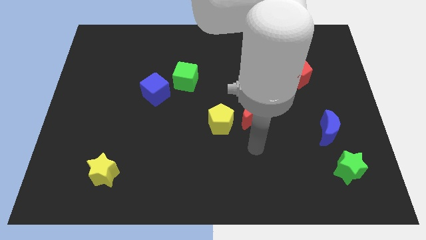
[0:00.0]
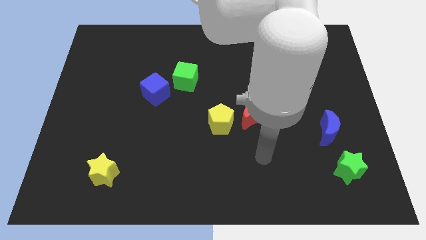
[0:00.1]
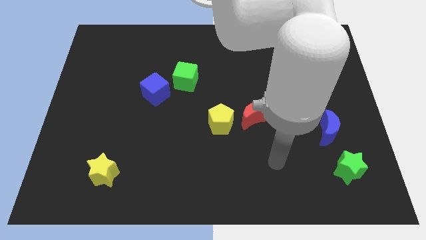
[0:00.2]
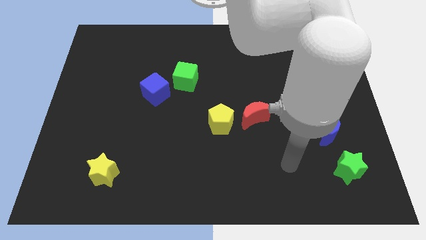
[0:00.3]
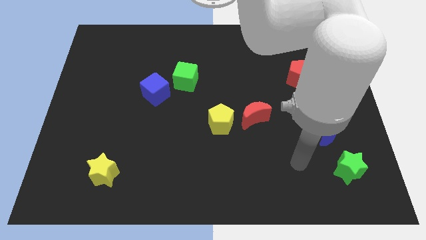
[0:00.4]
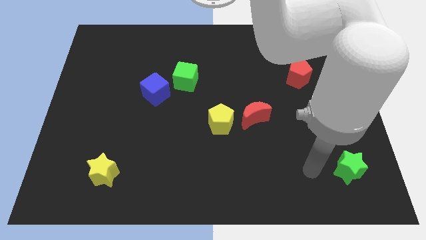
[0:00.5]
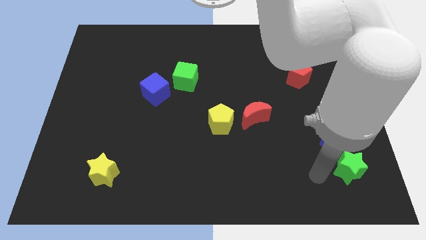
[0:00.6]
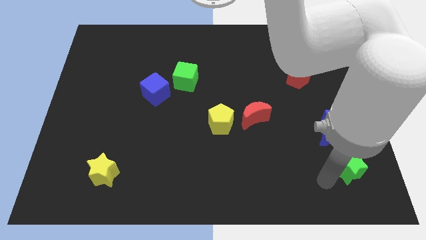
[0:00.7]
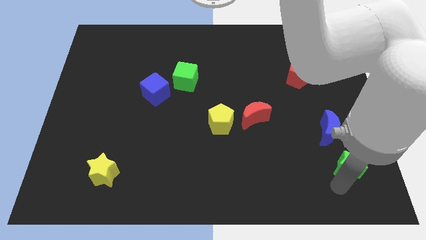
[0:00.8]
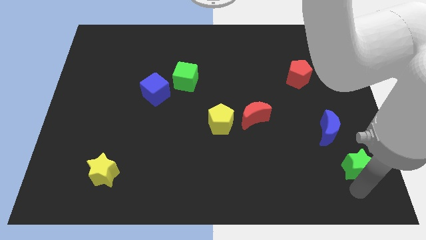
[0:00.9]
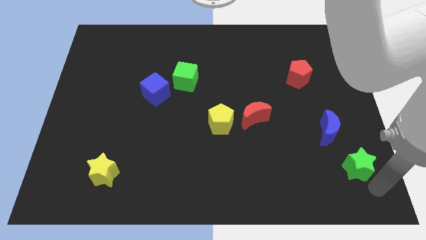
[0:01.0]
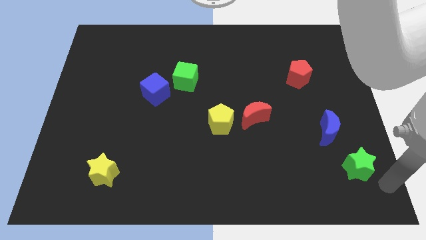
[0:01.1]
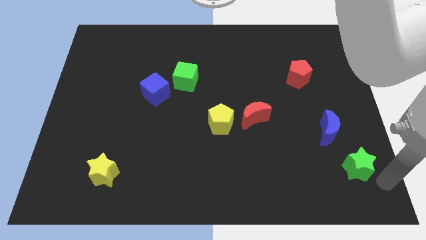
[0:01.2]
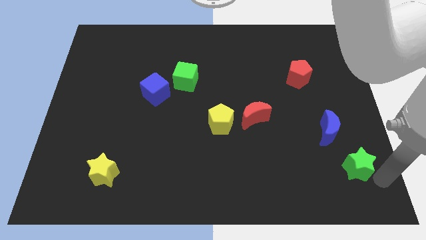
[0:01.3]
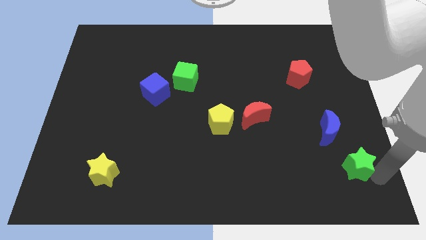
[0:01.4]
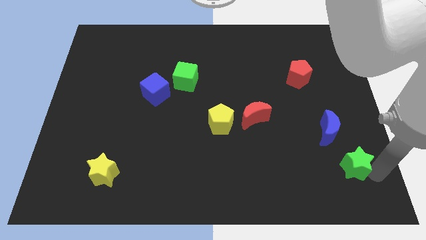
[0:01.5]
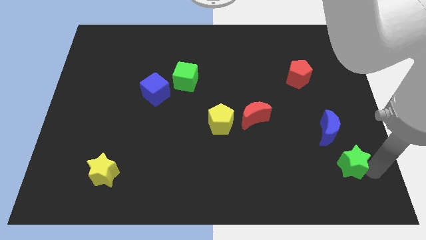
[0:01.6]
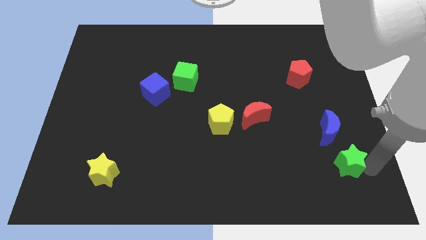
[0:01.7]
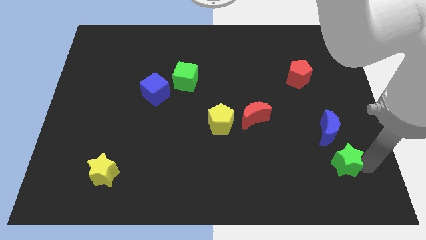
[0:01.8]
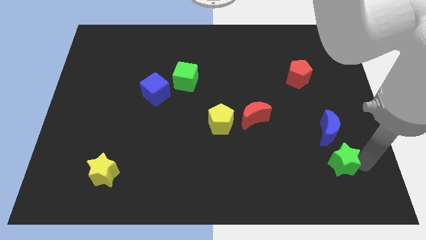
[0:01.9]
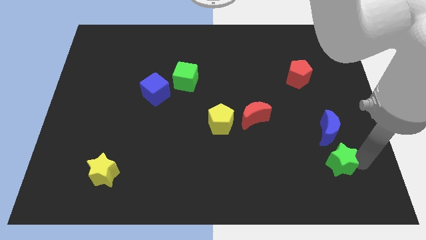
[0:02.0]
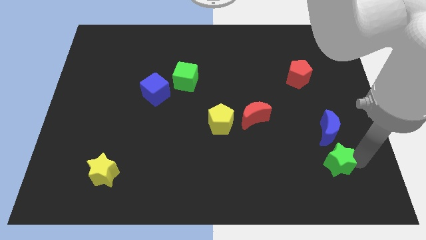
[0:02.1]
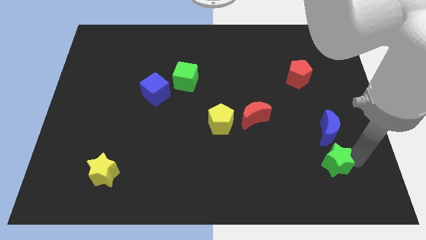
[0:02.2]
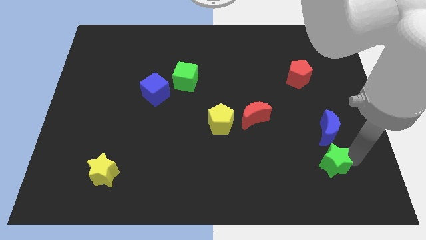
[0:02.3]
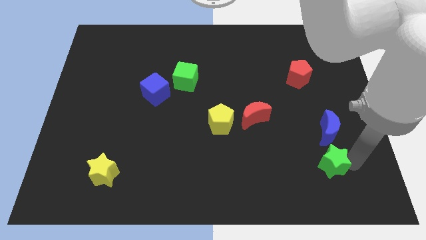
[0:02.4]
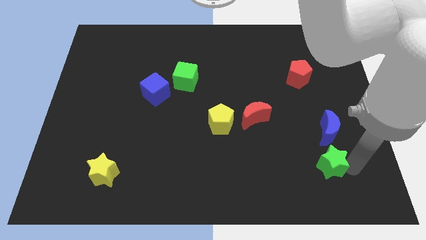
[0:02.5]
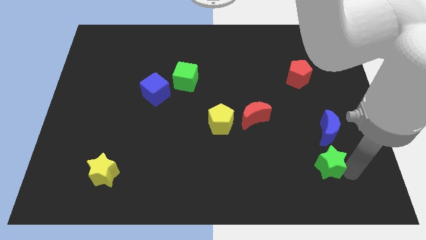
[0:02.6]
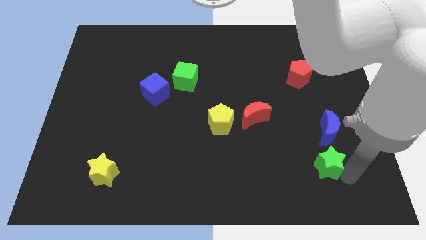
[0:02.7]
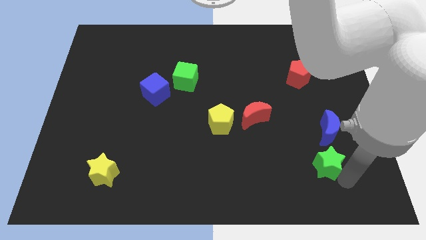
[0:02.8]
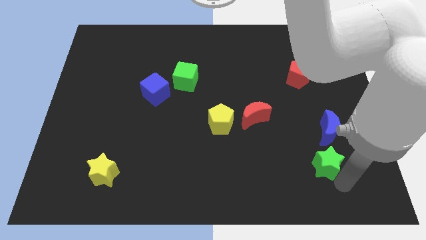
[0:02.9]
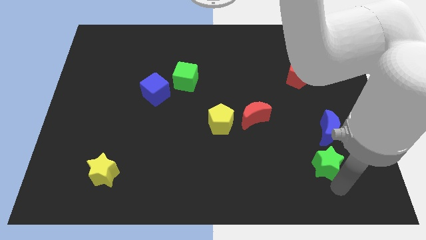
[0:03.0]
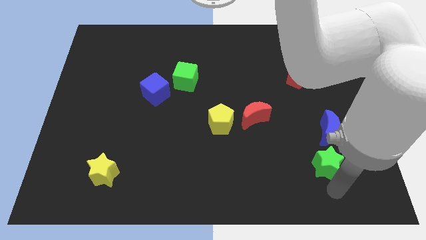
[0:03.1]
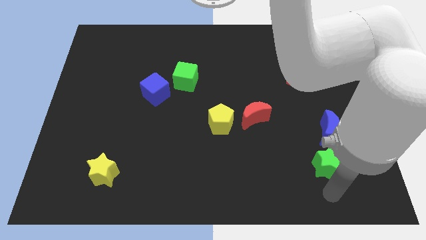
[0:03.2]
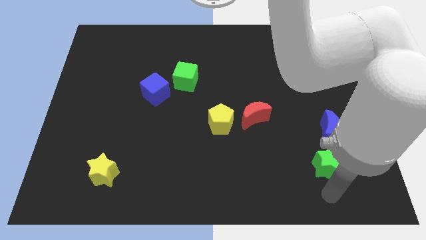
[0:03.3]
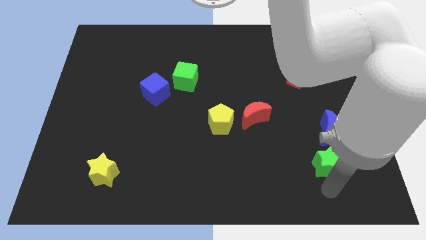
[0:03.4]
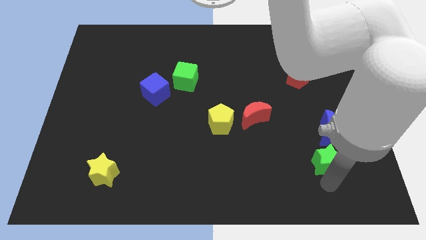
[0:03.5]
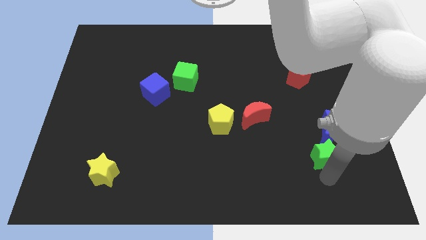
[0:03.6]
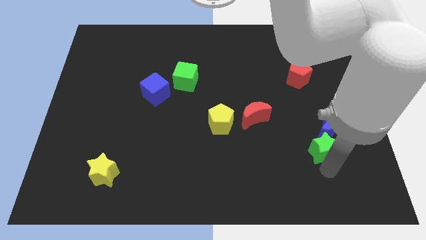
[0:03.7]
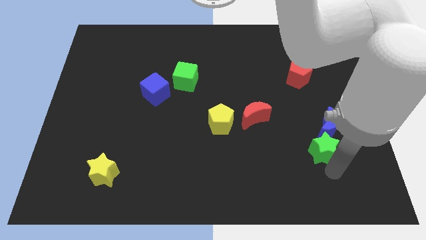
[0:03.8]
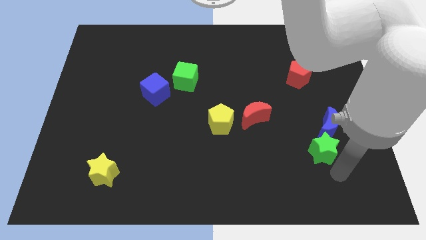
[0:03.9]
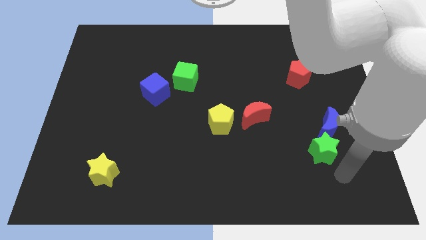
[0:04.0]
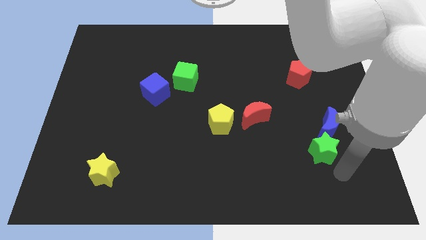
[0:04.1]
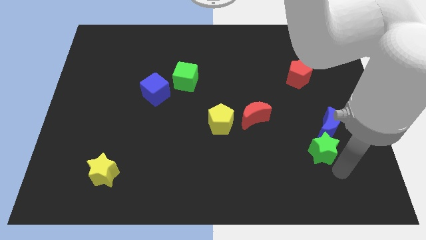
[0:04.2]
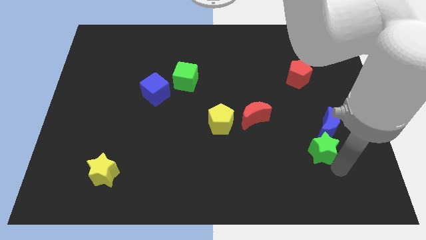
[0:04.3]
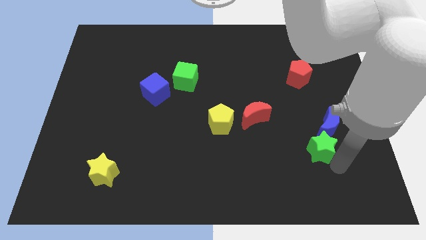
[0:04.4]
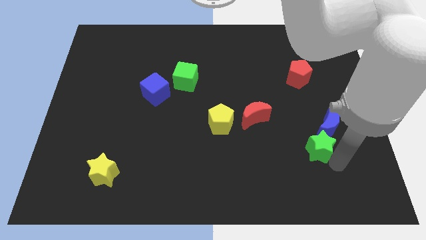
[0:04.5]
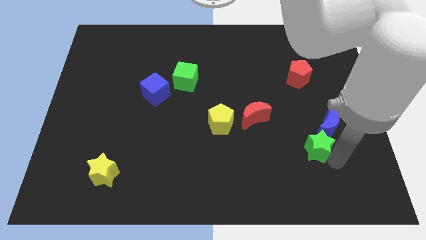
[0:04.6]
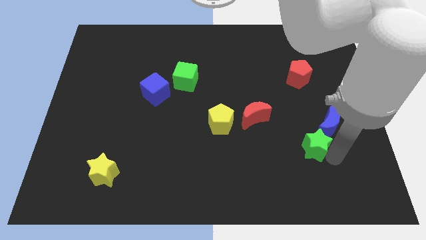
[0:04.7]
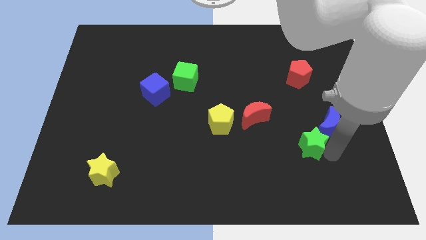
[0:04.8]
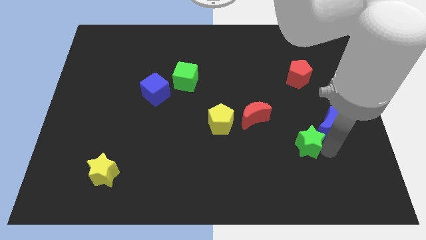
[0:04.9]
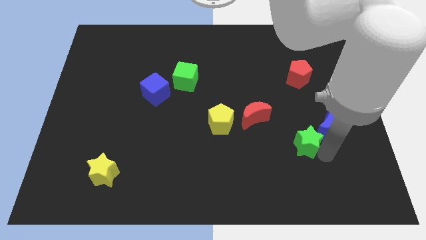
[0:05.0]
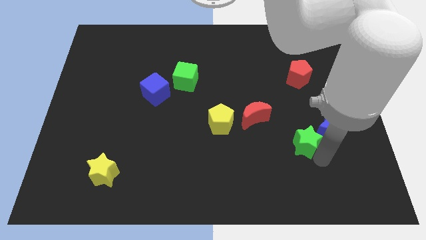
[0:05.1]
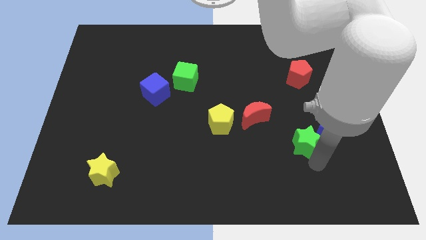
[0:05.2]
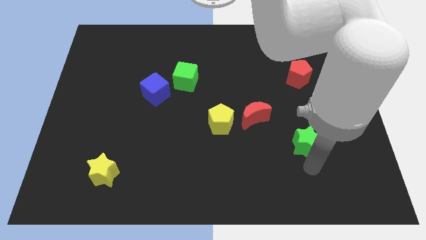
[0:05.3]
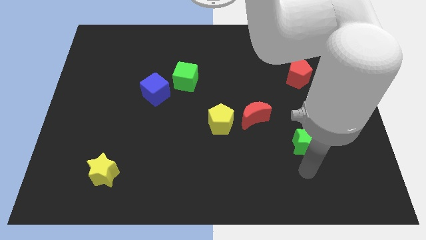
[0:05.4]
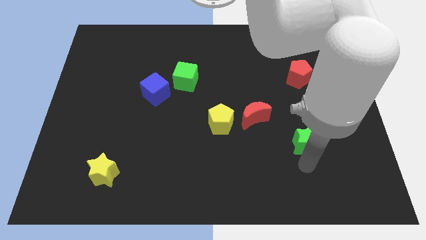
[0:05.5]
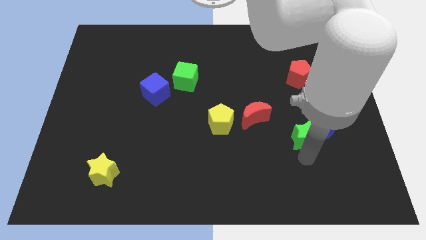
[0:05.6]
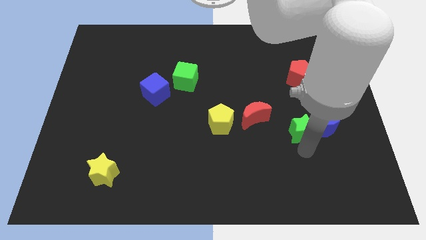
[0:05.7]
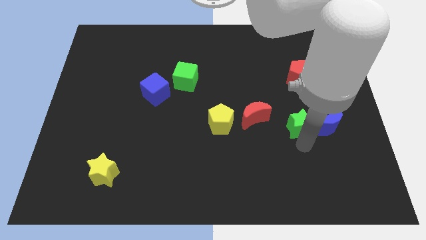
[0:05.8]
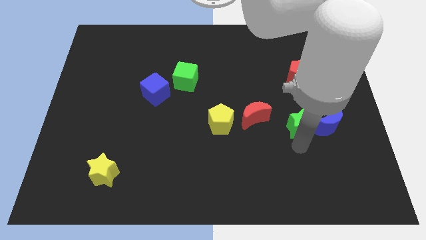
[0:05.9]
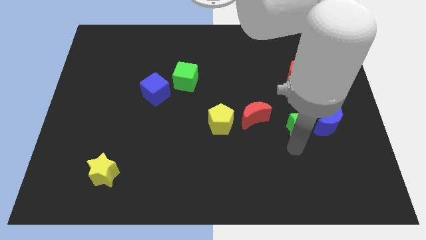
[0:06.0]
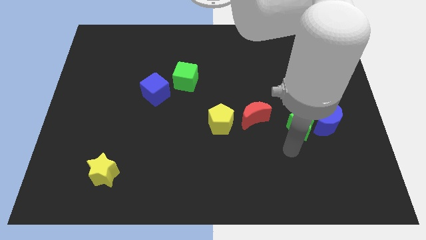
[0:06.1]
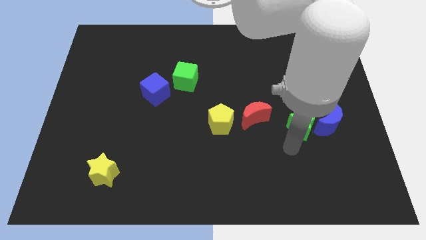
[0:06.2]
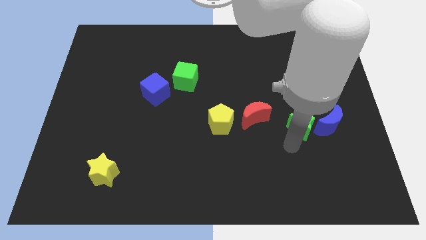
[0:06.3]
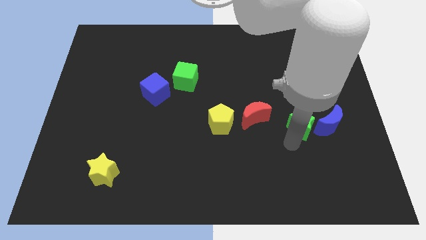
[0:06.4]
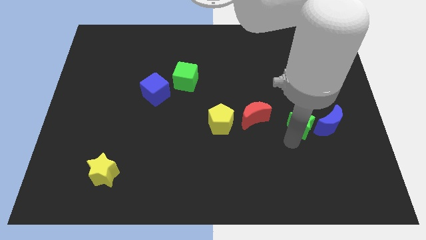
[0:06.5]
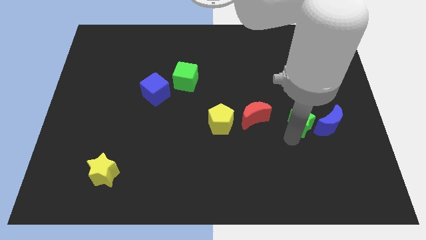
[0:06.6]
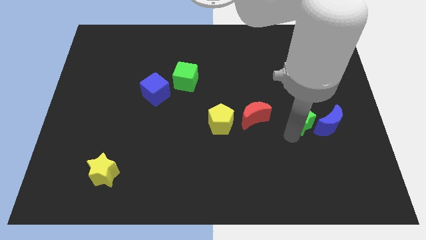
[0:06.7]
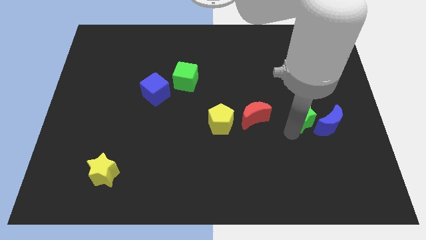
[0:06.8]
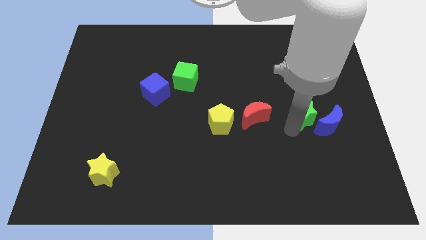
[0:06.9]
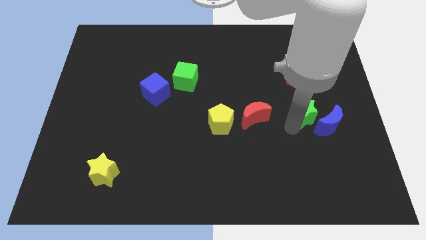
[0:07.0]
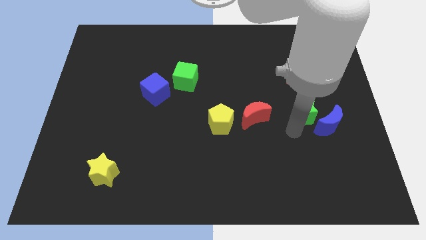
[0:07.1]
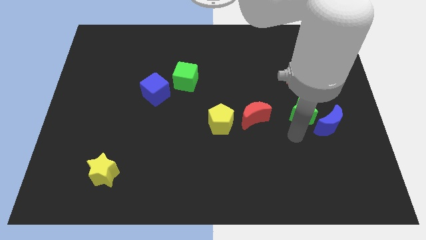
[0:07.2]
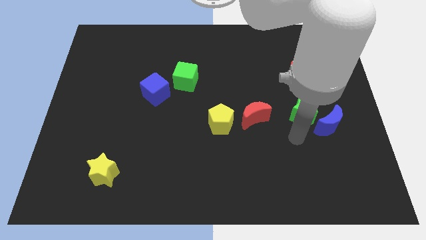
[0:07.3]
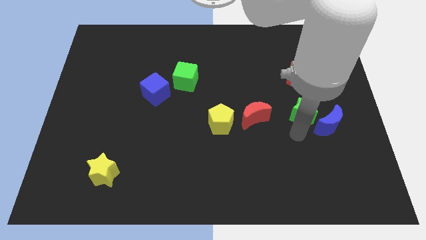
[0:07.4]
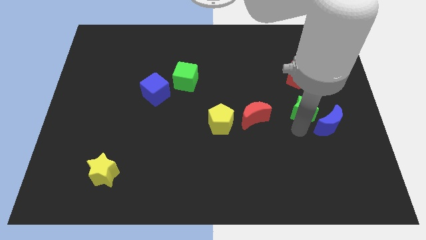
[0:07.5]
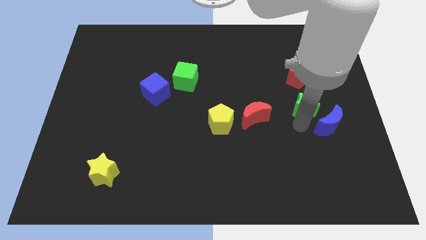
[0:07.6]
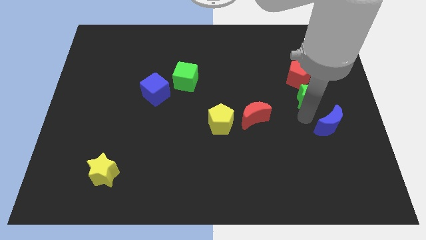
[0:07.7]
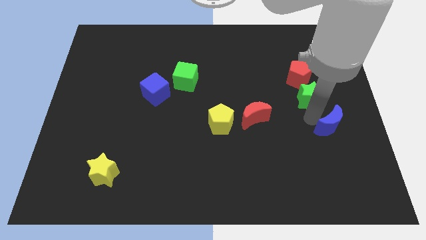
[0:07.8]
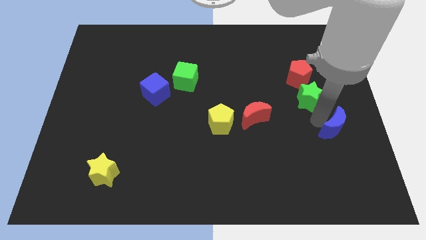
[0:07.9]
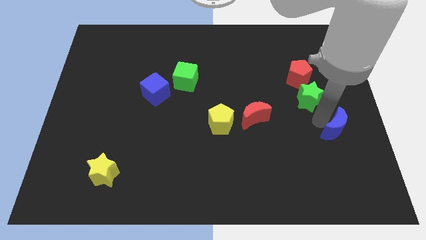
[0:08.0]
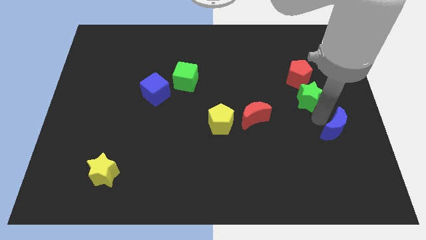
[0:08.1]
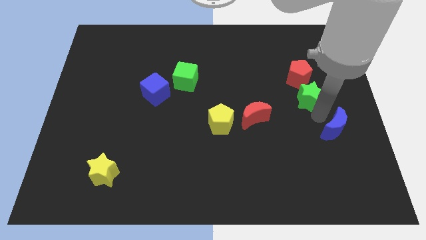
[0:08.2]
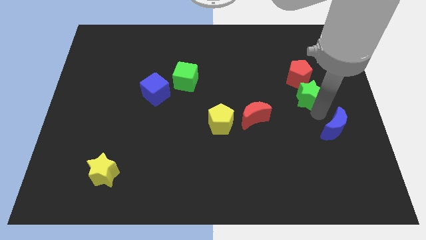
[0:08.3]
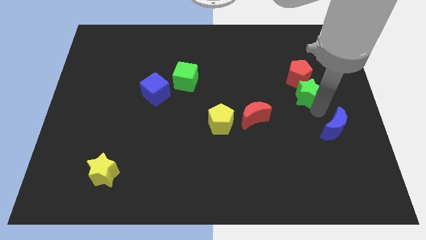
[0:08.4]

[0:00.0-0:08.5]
push the green star towards the red pentagon
